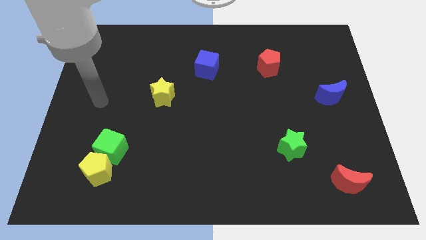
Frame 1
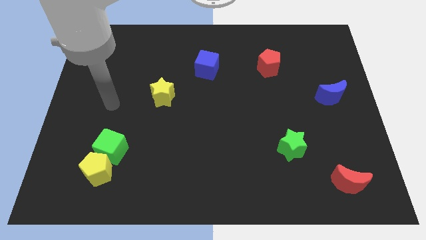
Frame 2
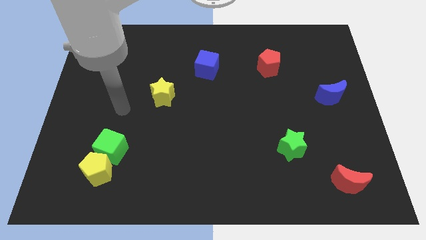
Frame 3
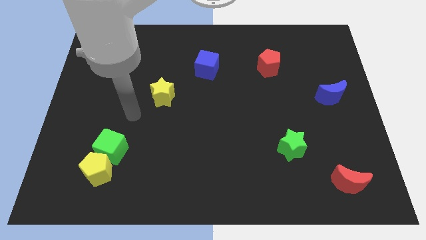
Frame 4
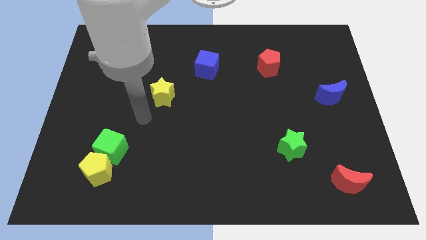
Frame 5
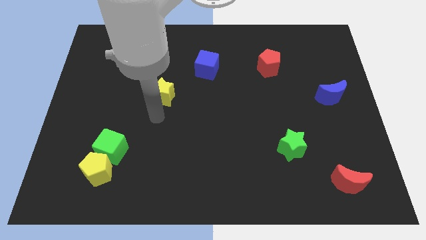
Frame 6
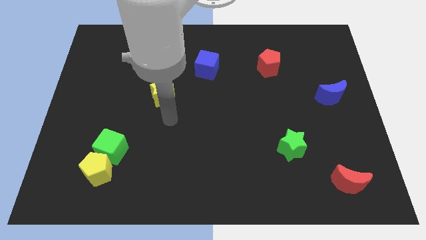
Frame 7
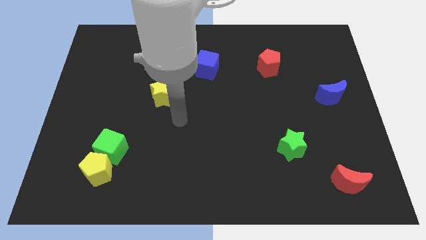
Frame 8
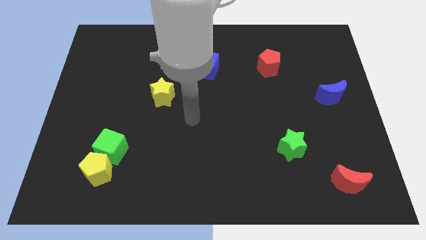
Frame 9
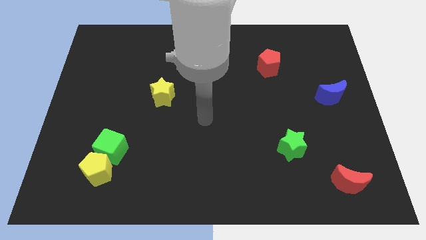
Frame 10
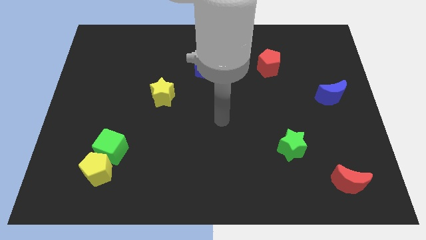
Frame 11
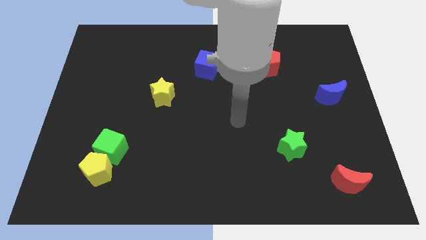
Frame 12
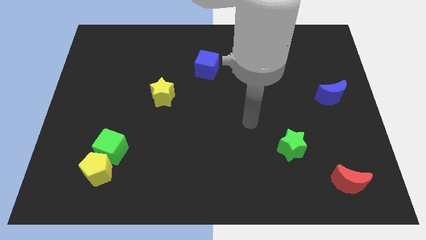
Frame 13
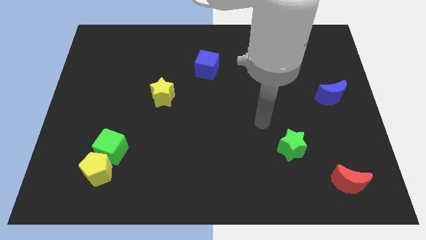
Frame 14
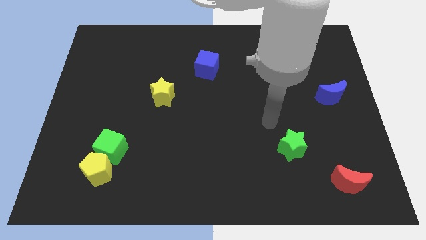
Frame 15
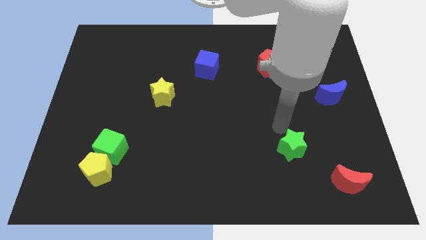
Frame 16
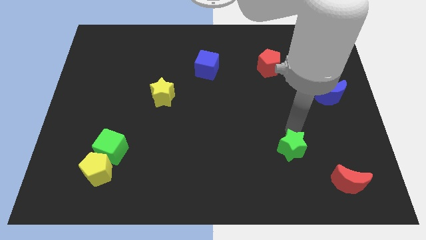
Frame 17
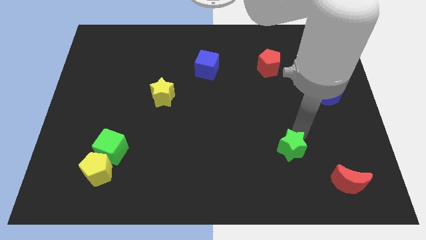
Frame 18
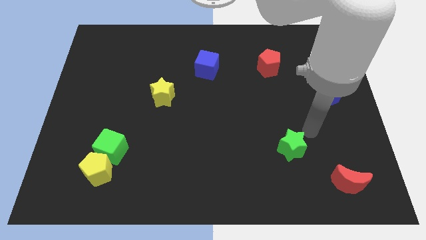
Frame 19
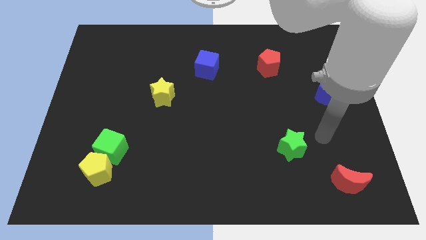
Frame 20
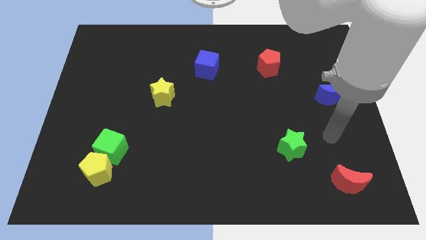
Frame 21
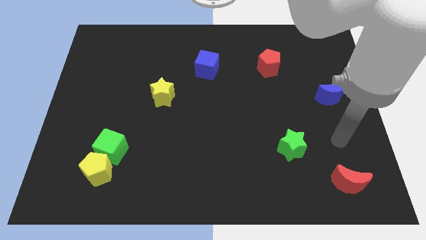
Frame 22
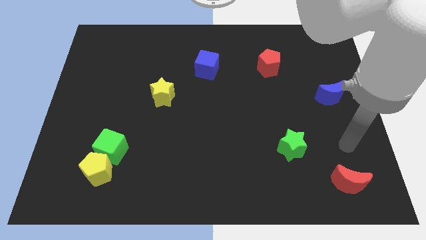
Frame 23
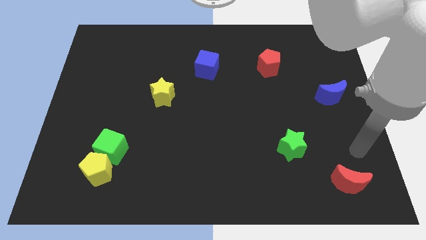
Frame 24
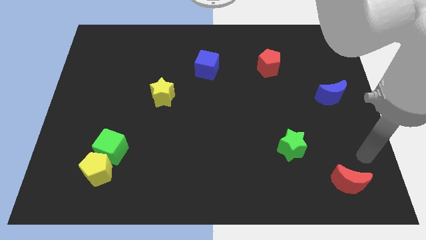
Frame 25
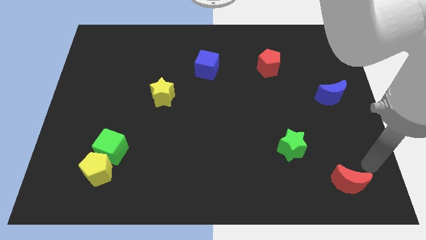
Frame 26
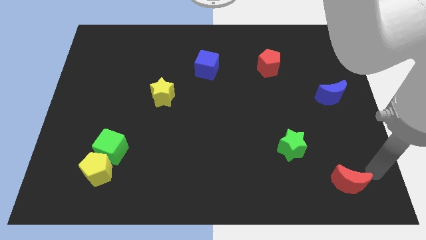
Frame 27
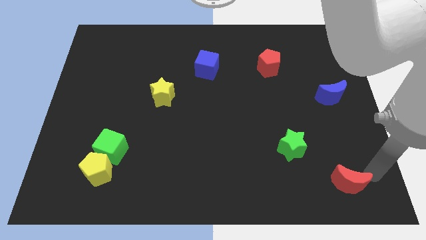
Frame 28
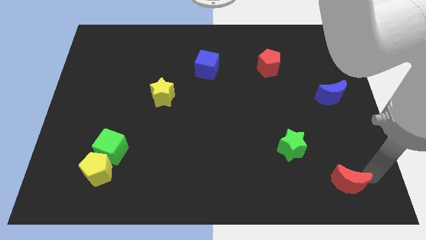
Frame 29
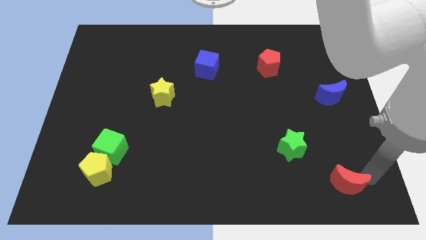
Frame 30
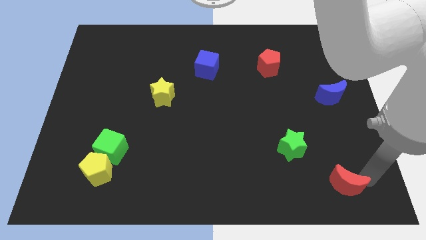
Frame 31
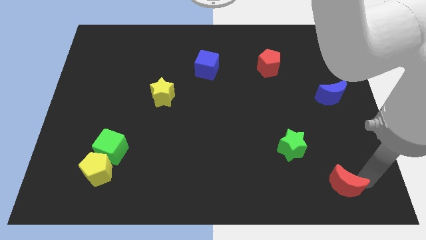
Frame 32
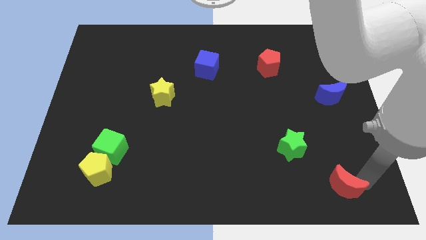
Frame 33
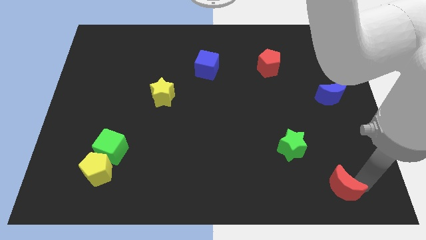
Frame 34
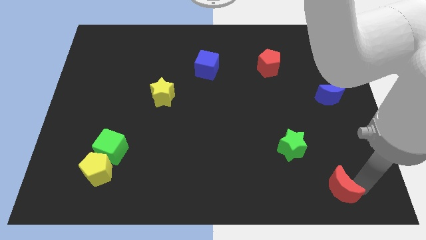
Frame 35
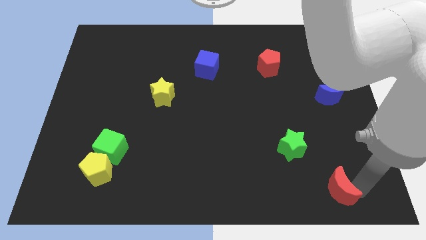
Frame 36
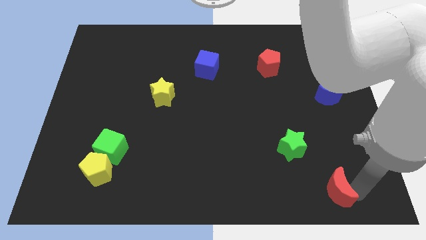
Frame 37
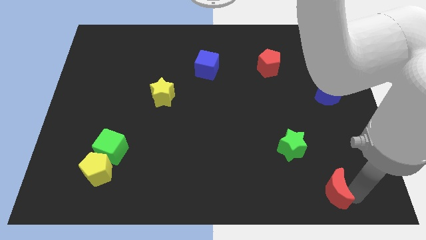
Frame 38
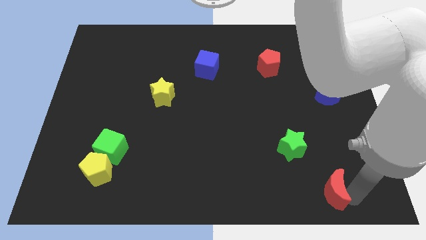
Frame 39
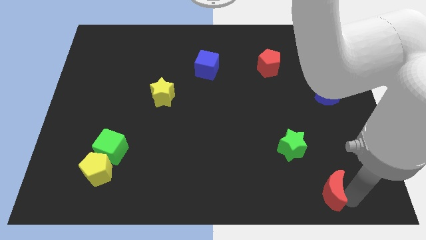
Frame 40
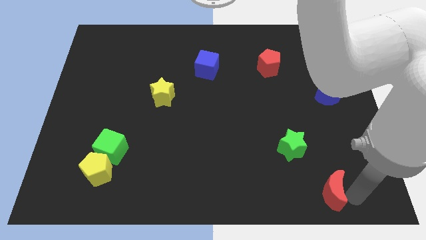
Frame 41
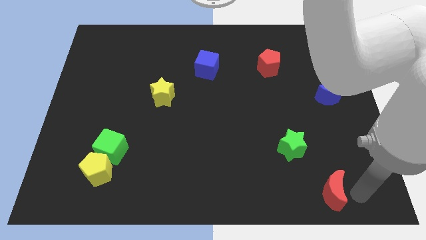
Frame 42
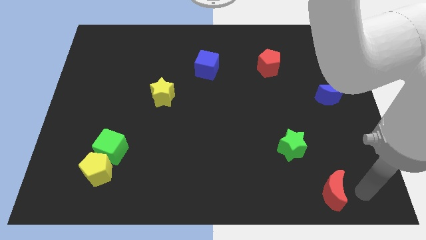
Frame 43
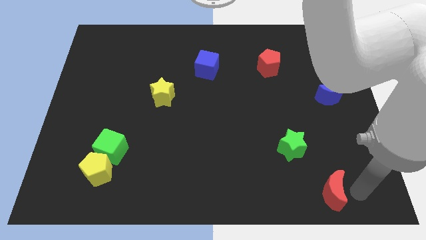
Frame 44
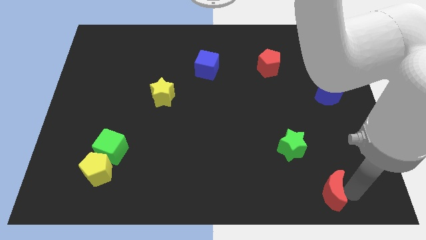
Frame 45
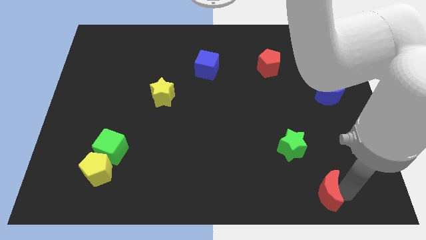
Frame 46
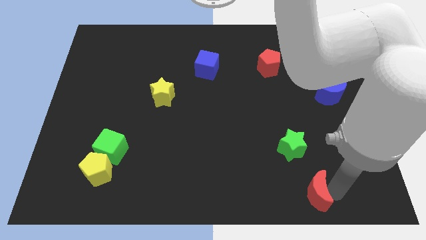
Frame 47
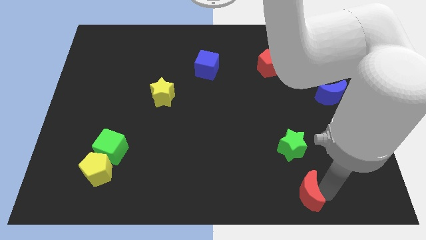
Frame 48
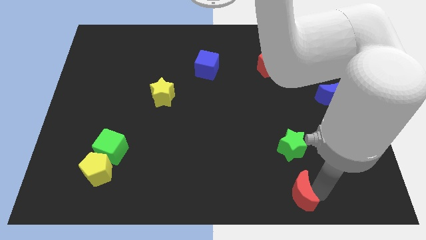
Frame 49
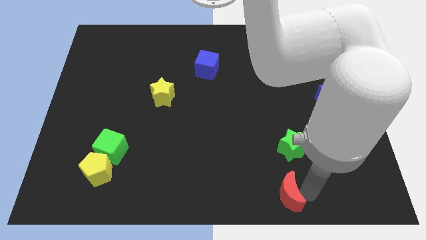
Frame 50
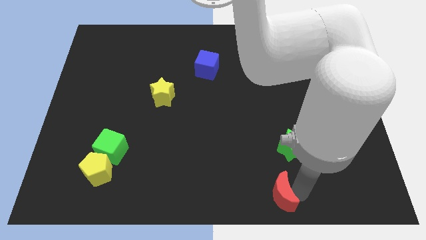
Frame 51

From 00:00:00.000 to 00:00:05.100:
slide the red moon to the bottom

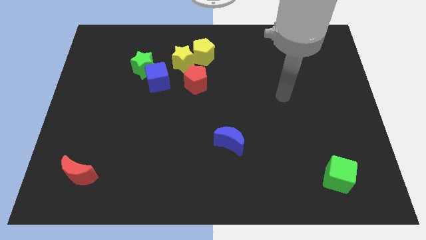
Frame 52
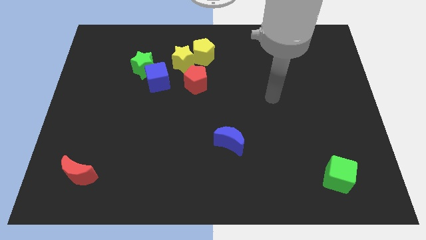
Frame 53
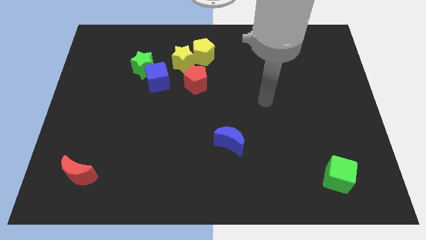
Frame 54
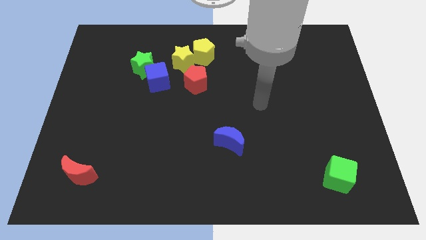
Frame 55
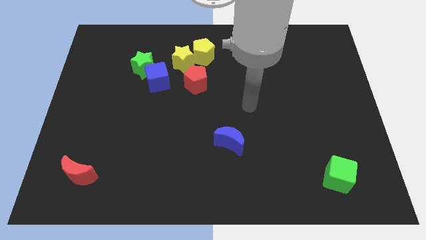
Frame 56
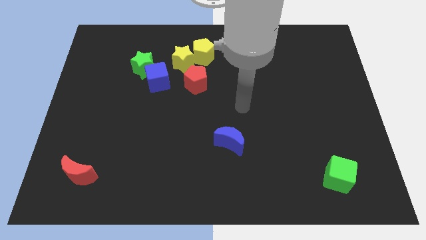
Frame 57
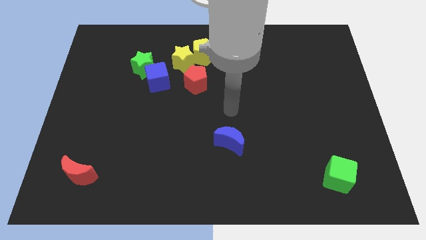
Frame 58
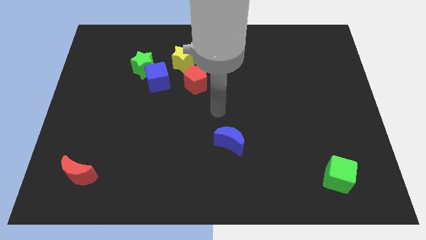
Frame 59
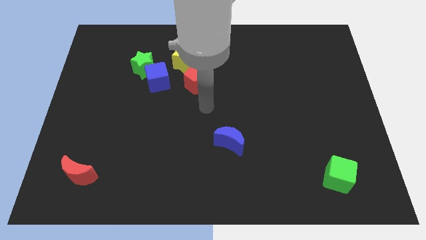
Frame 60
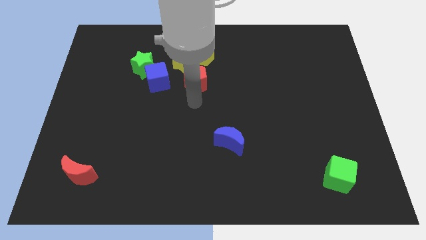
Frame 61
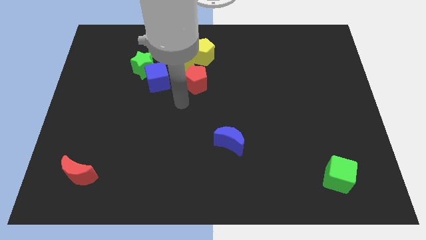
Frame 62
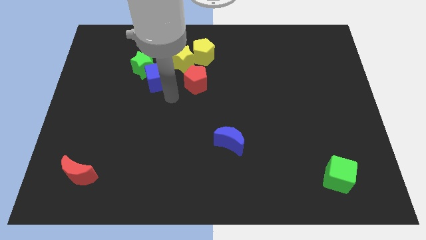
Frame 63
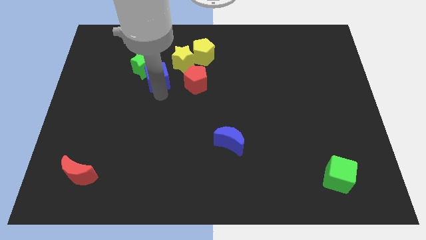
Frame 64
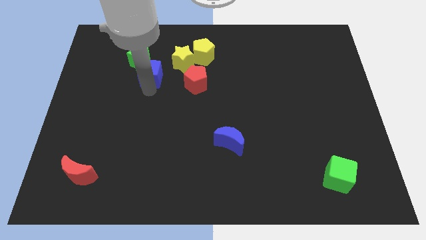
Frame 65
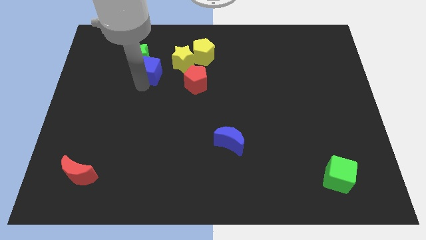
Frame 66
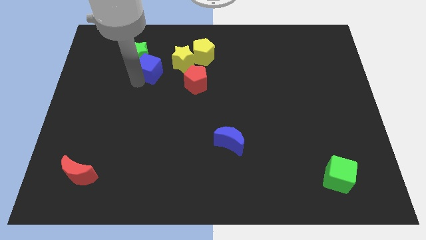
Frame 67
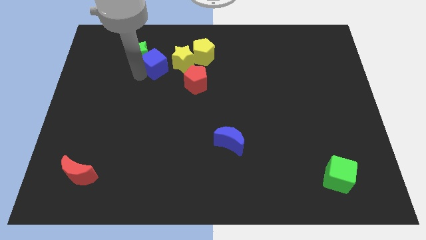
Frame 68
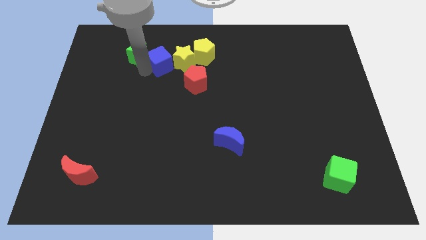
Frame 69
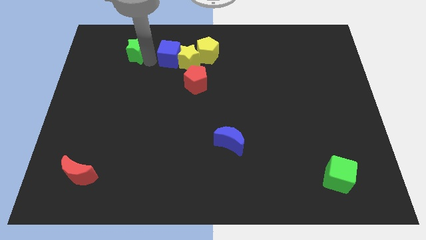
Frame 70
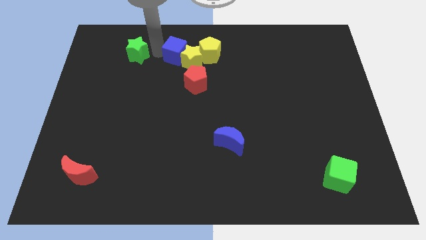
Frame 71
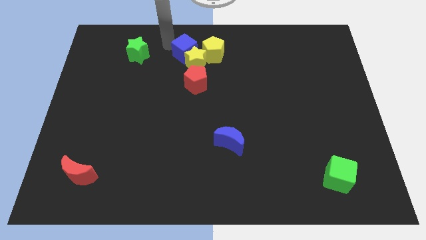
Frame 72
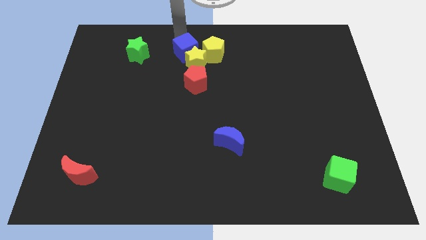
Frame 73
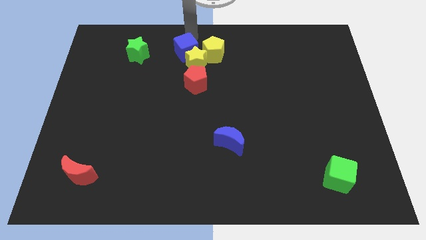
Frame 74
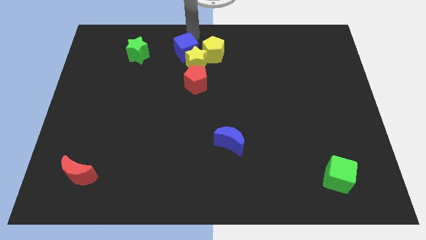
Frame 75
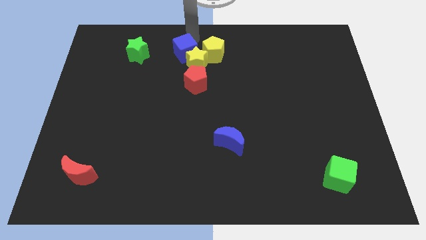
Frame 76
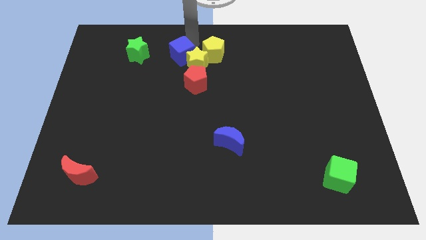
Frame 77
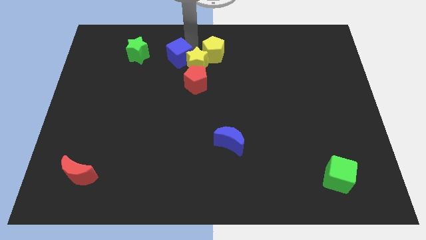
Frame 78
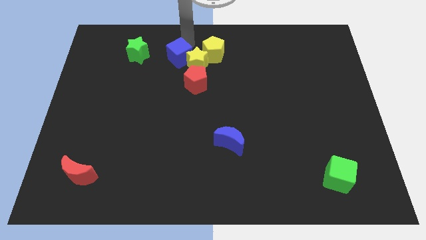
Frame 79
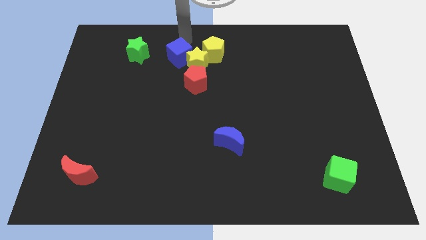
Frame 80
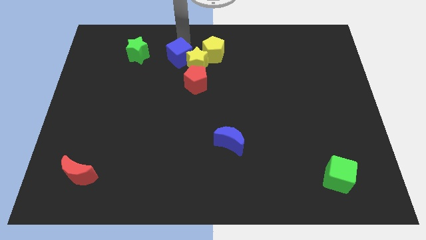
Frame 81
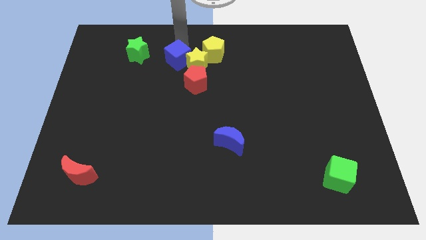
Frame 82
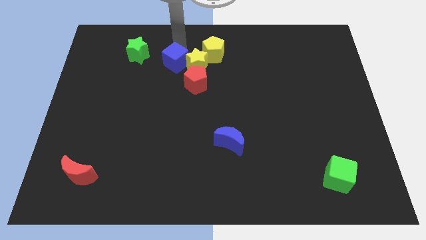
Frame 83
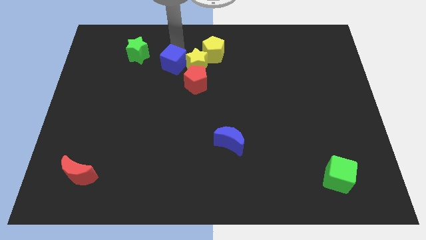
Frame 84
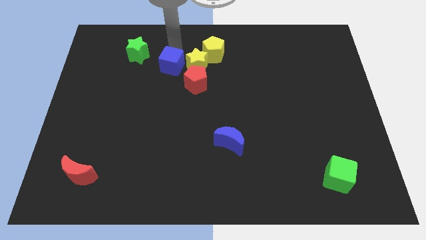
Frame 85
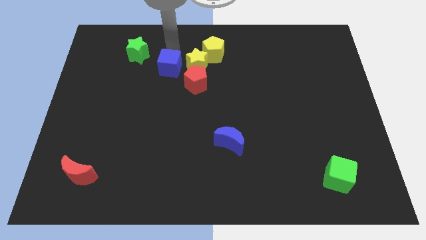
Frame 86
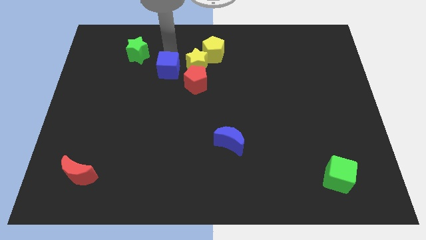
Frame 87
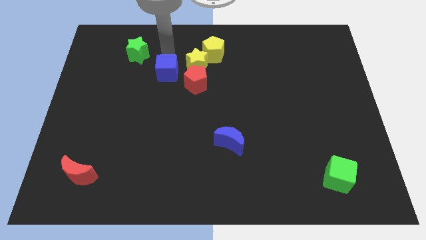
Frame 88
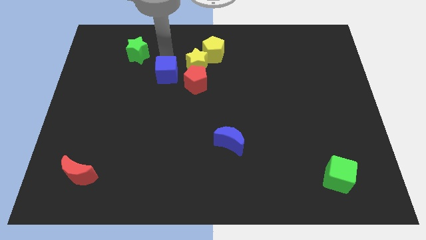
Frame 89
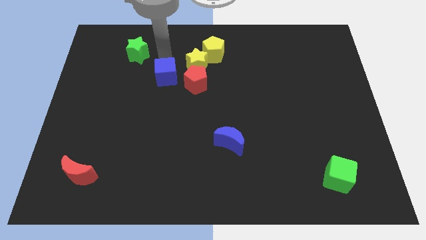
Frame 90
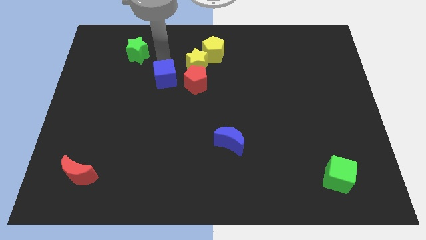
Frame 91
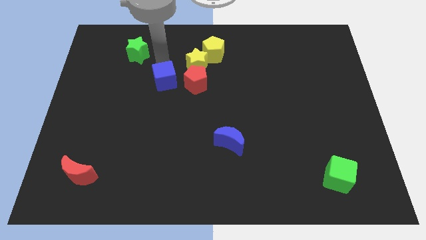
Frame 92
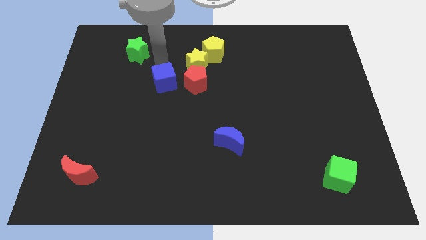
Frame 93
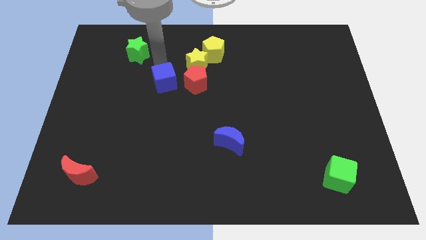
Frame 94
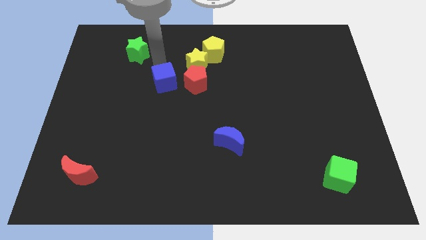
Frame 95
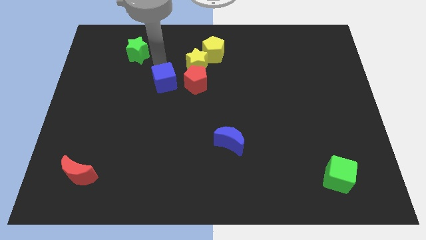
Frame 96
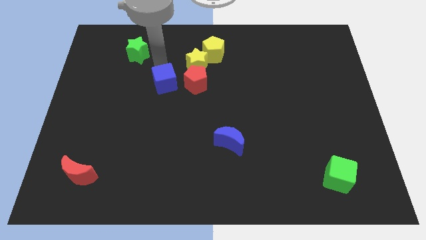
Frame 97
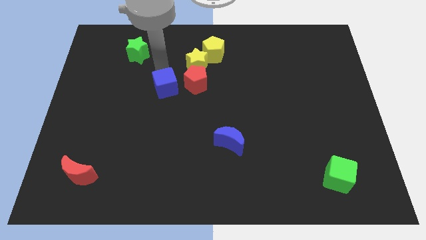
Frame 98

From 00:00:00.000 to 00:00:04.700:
push the blue cube to the middle
